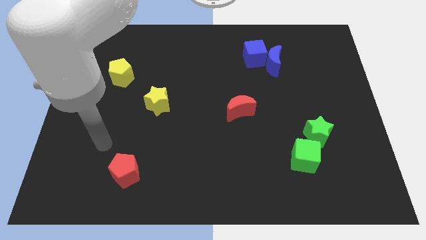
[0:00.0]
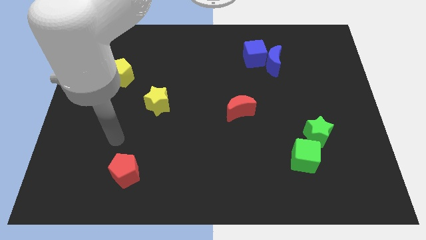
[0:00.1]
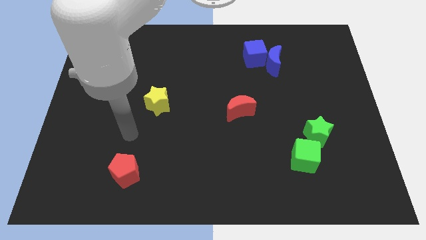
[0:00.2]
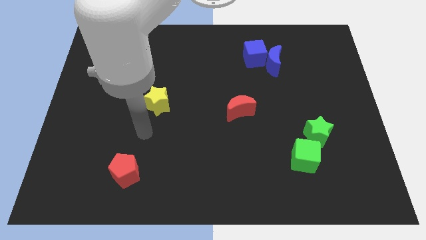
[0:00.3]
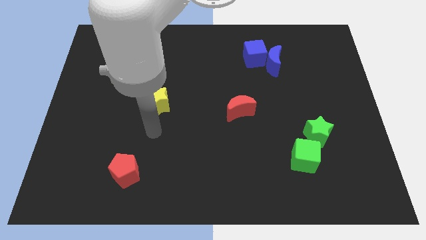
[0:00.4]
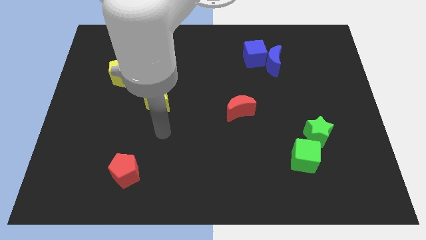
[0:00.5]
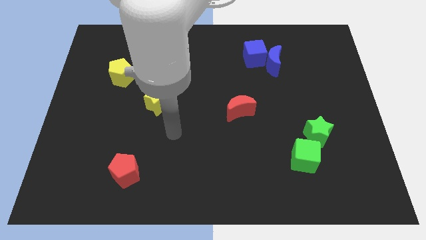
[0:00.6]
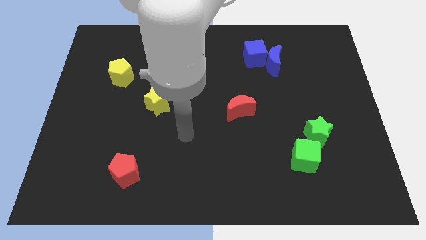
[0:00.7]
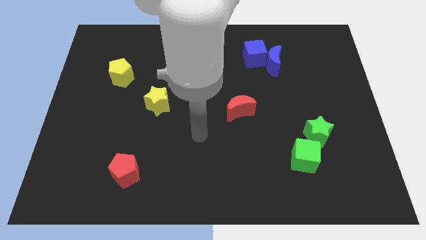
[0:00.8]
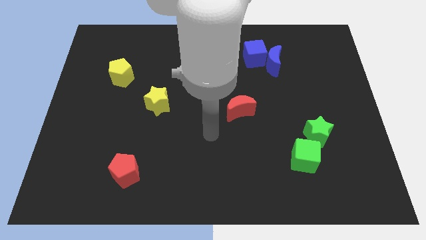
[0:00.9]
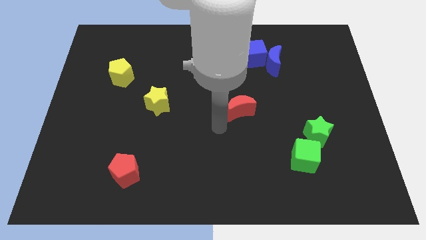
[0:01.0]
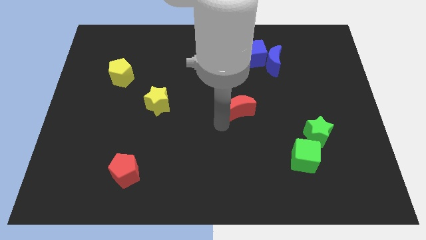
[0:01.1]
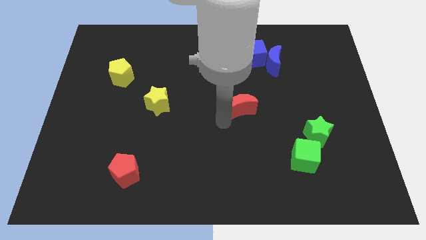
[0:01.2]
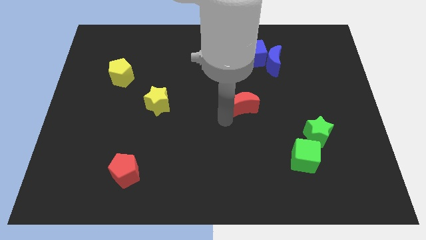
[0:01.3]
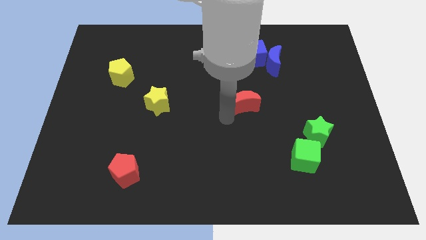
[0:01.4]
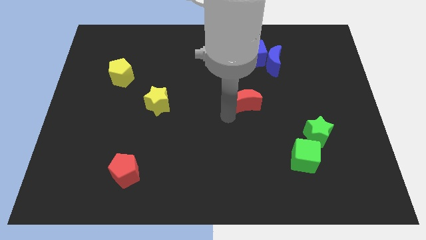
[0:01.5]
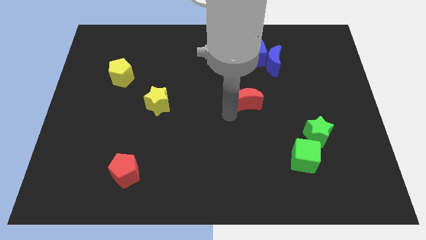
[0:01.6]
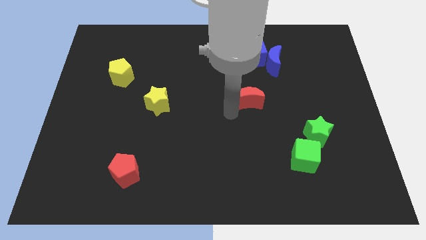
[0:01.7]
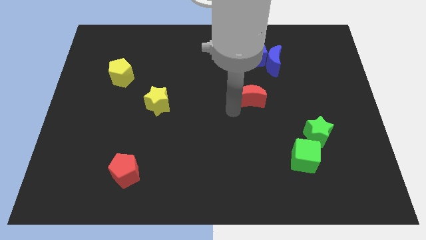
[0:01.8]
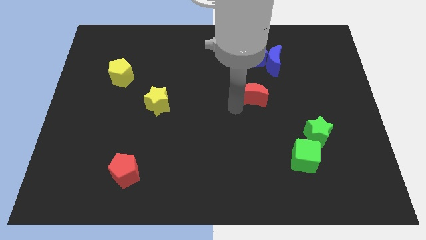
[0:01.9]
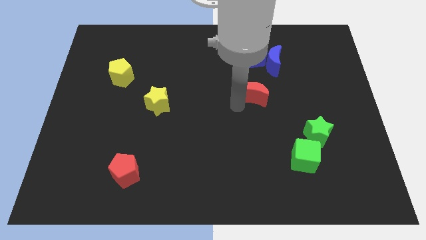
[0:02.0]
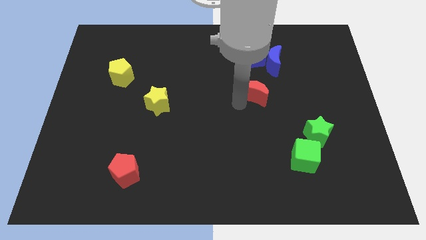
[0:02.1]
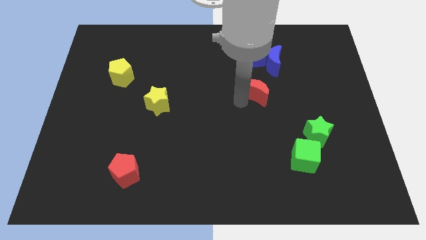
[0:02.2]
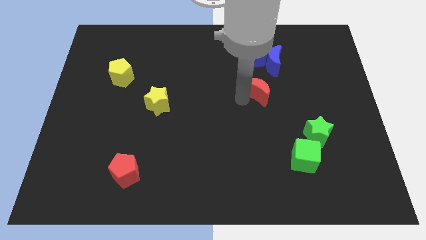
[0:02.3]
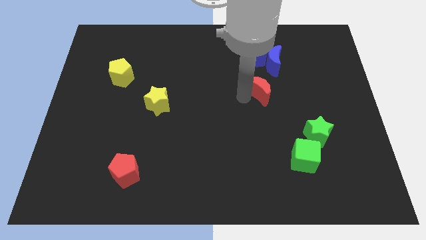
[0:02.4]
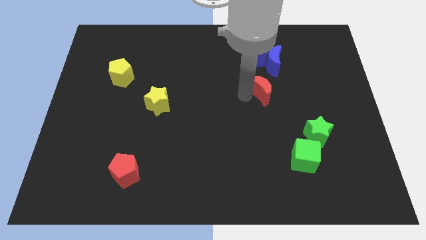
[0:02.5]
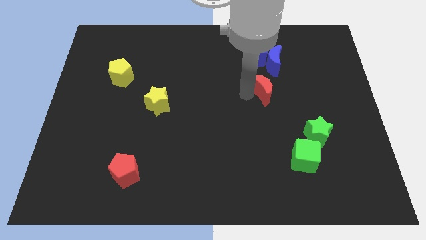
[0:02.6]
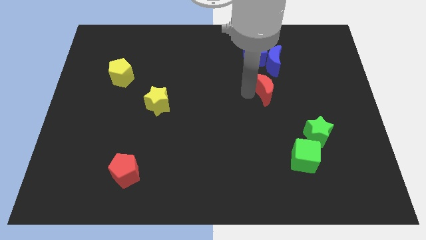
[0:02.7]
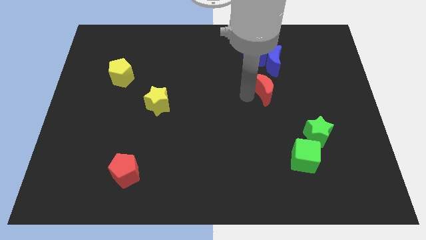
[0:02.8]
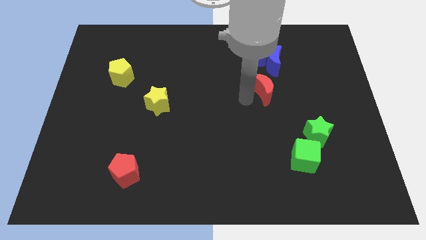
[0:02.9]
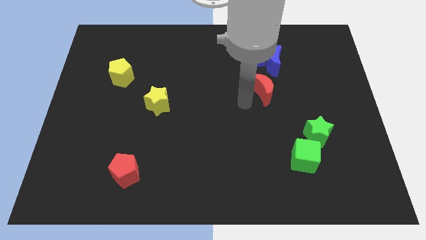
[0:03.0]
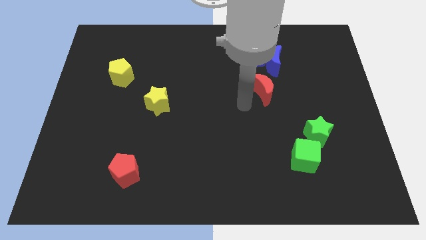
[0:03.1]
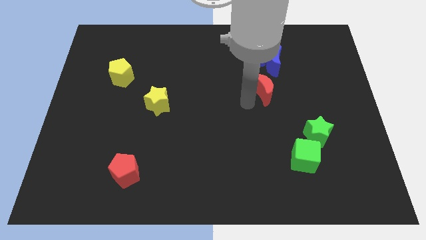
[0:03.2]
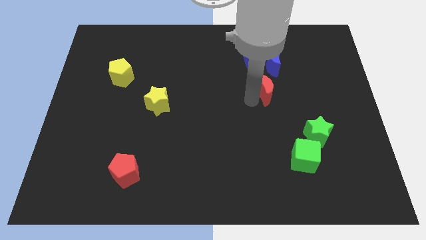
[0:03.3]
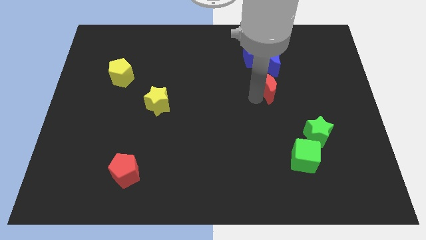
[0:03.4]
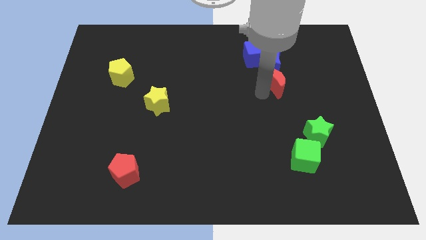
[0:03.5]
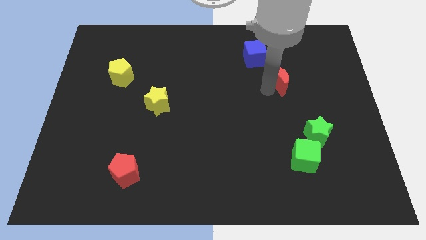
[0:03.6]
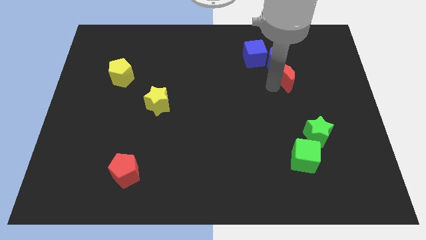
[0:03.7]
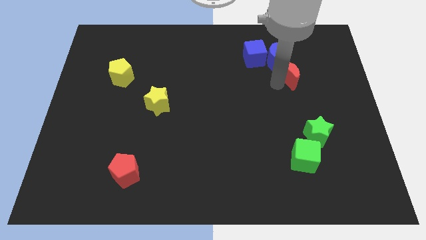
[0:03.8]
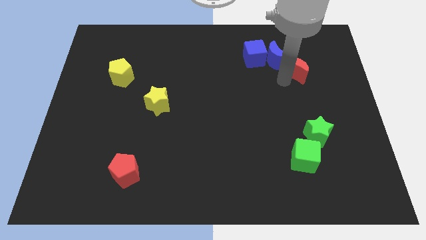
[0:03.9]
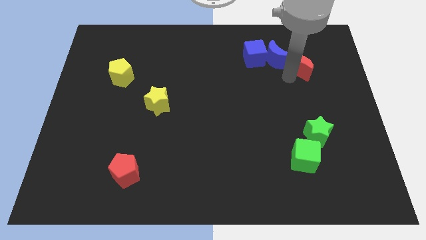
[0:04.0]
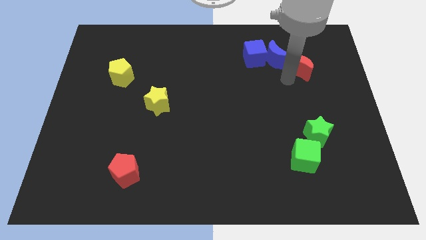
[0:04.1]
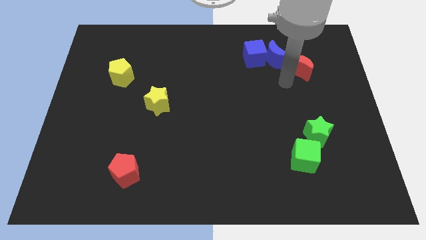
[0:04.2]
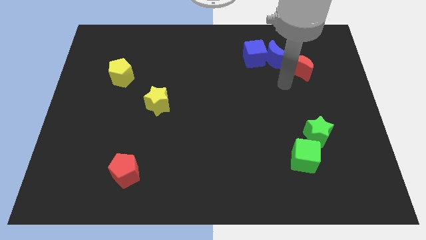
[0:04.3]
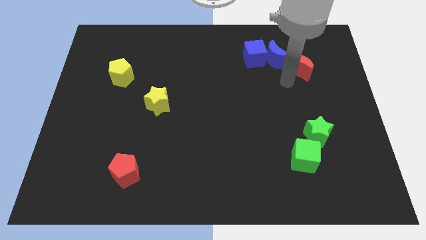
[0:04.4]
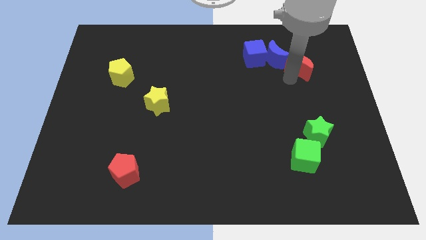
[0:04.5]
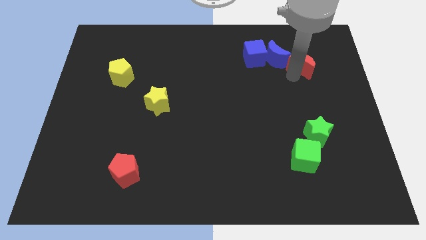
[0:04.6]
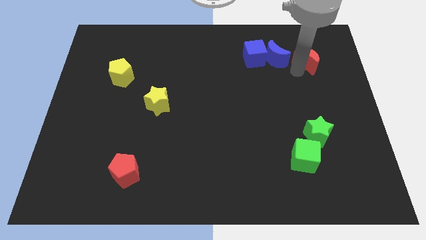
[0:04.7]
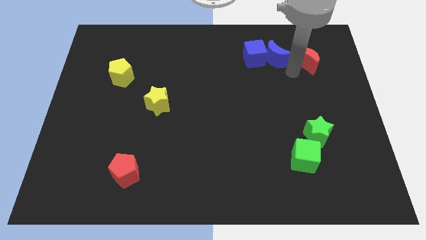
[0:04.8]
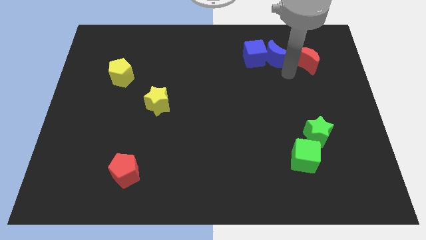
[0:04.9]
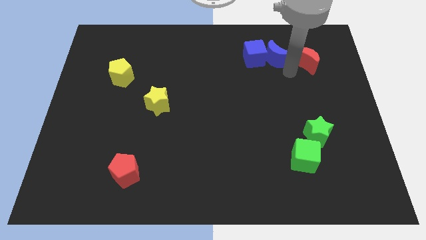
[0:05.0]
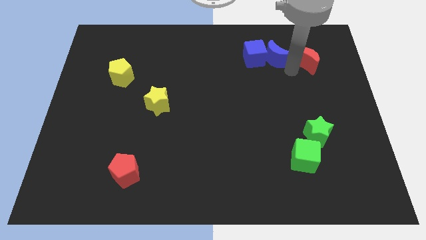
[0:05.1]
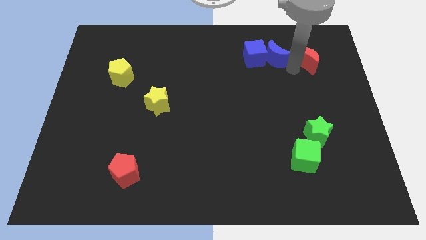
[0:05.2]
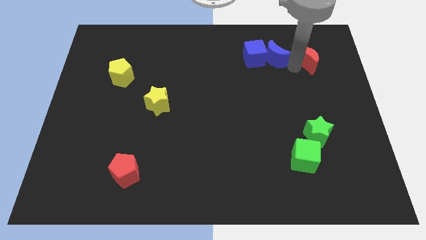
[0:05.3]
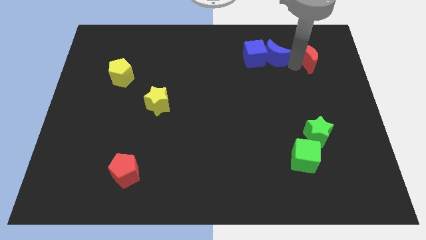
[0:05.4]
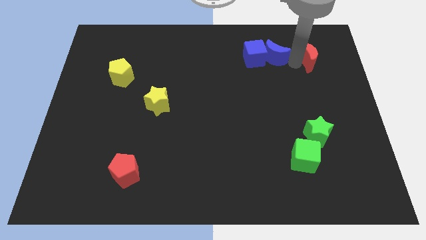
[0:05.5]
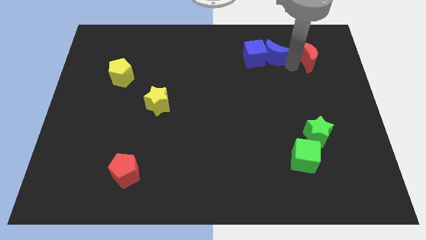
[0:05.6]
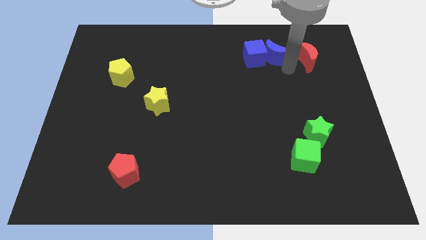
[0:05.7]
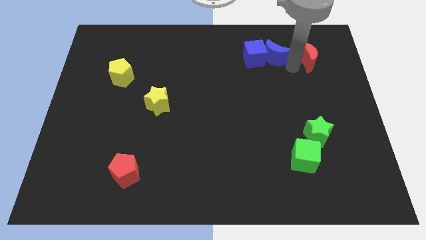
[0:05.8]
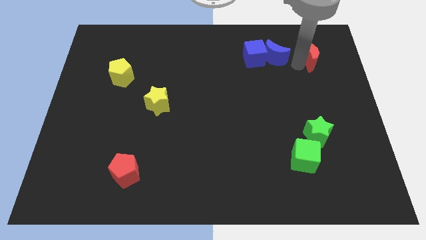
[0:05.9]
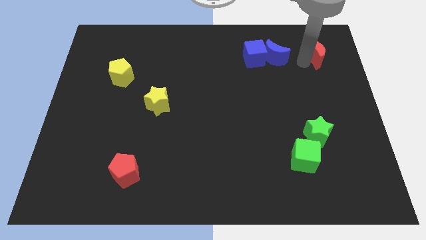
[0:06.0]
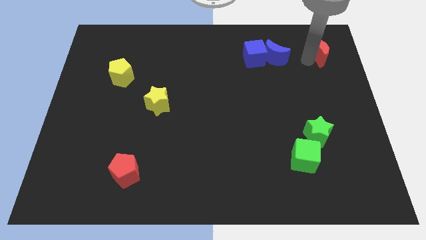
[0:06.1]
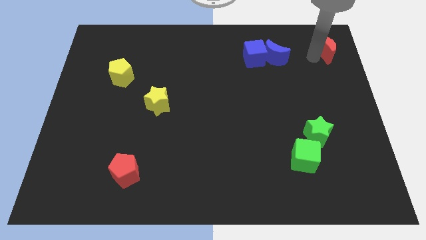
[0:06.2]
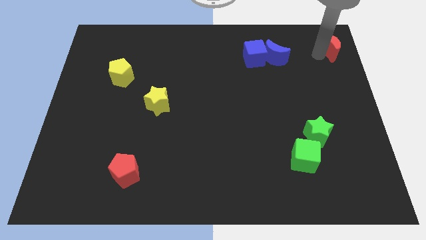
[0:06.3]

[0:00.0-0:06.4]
push the red moon to the top right
